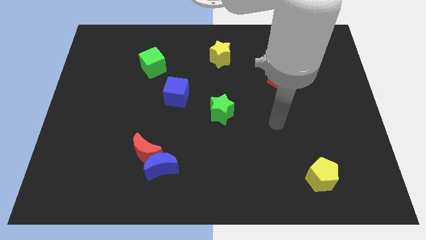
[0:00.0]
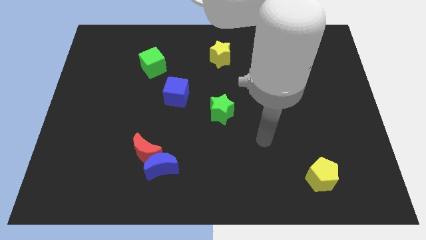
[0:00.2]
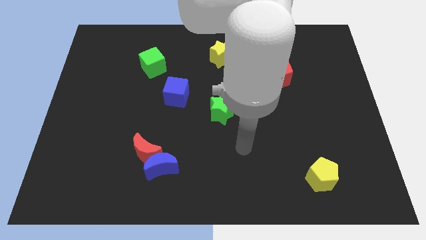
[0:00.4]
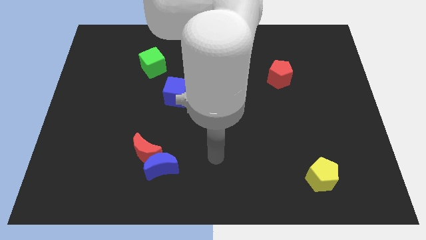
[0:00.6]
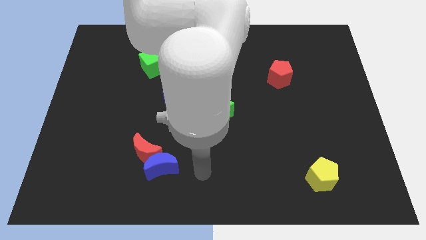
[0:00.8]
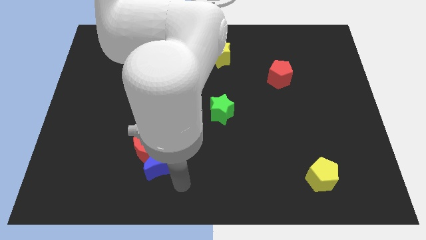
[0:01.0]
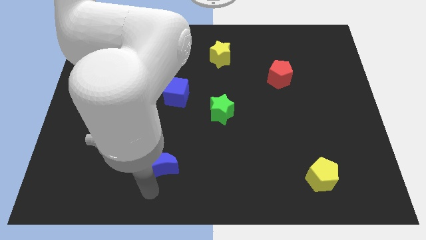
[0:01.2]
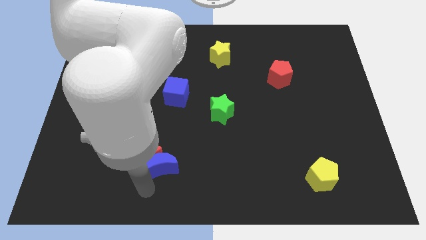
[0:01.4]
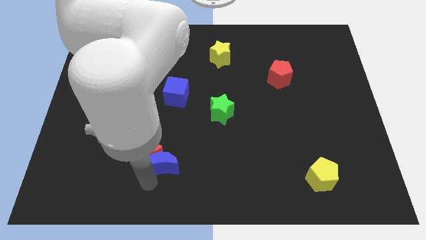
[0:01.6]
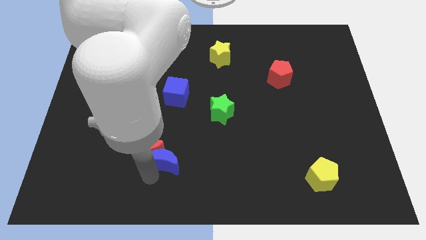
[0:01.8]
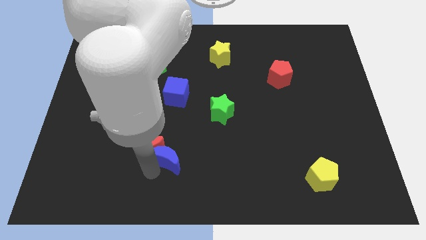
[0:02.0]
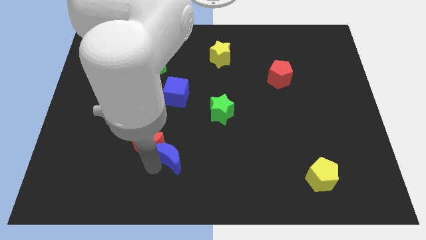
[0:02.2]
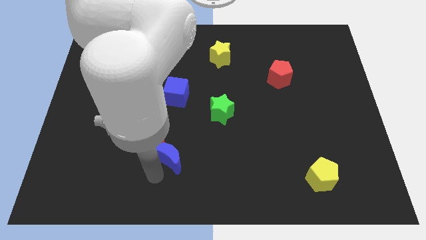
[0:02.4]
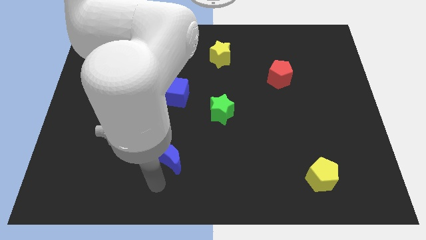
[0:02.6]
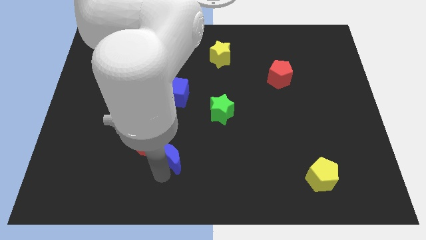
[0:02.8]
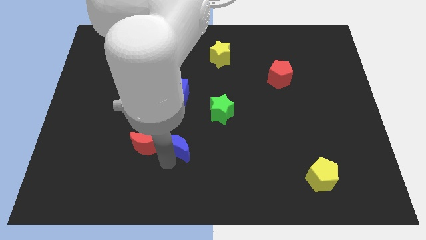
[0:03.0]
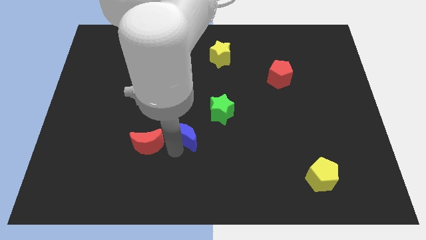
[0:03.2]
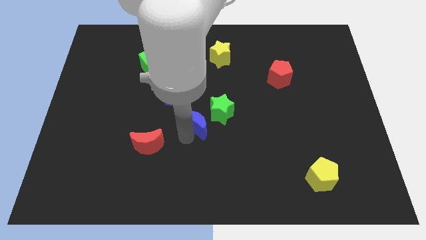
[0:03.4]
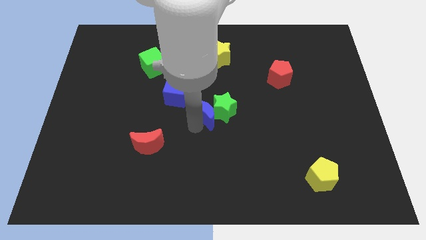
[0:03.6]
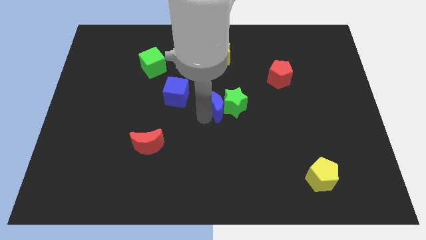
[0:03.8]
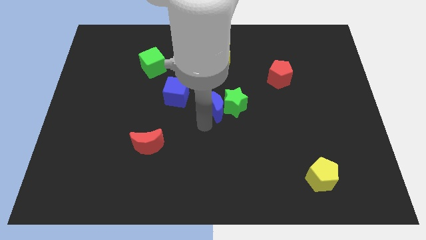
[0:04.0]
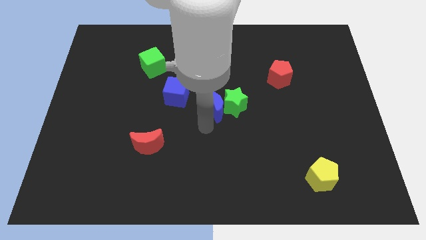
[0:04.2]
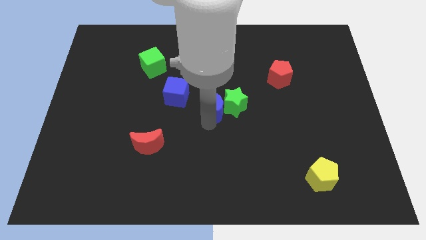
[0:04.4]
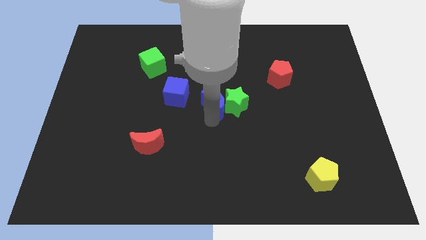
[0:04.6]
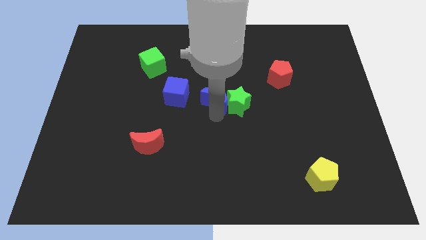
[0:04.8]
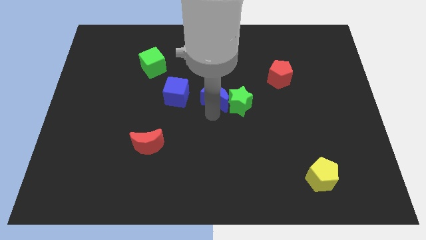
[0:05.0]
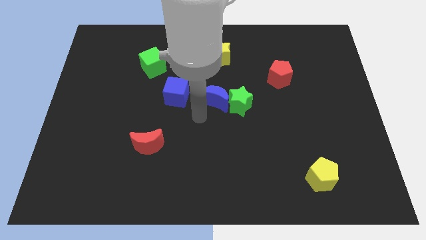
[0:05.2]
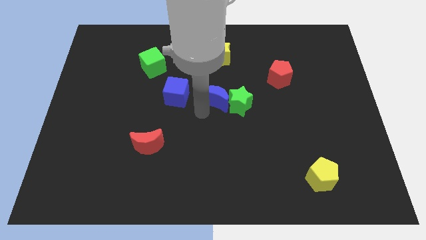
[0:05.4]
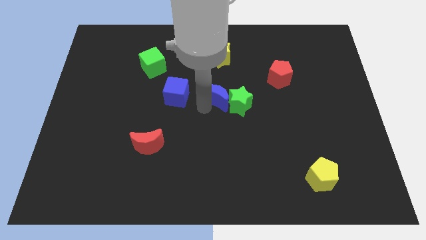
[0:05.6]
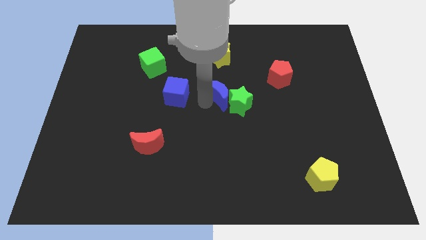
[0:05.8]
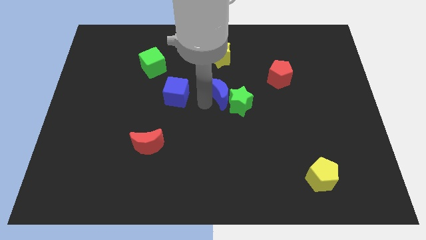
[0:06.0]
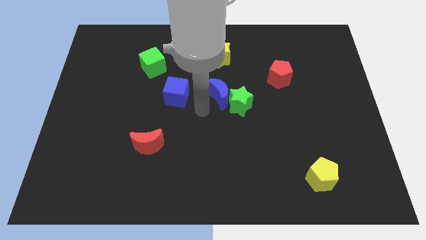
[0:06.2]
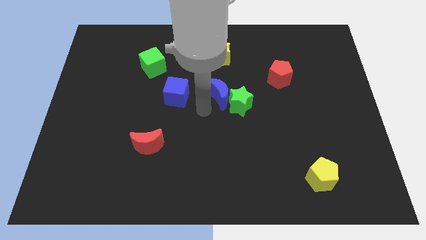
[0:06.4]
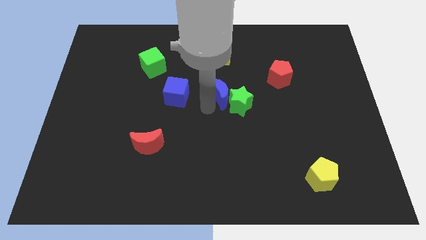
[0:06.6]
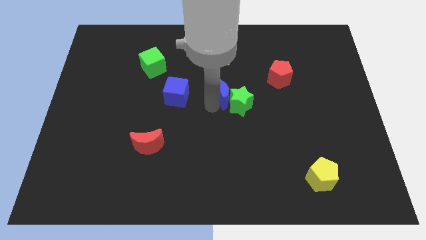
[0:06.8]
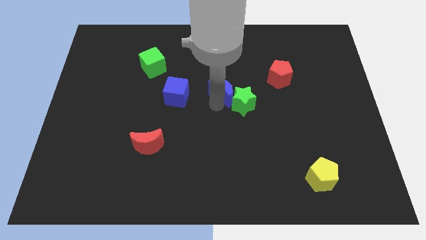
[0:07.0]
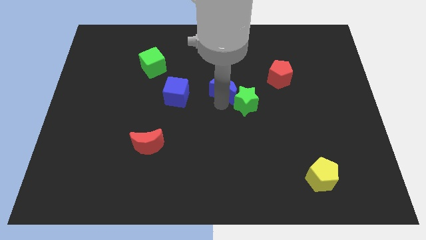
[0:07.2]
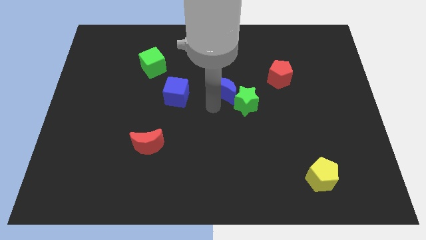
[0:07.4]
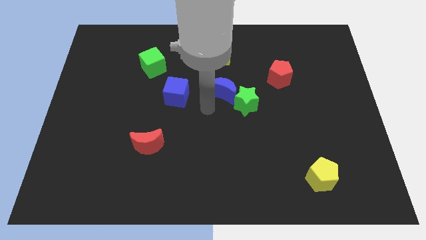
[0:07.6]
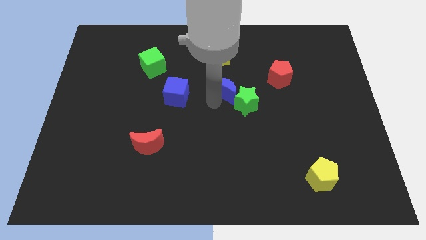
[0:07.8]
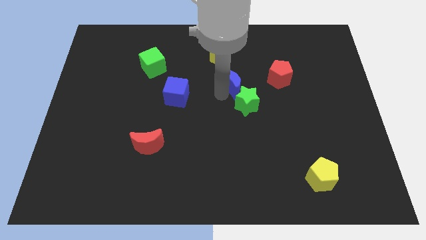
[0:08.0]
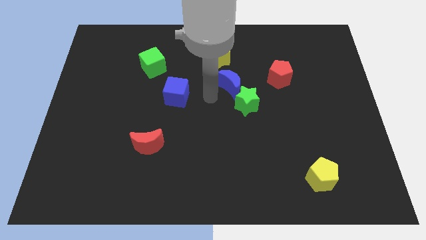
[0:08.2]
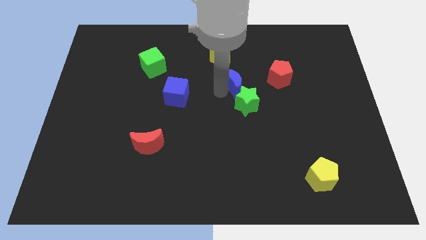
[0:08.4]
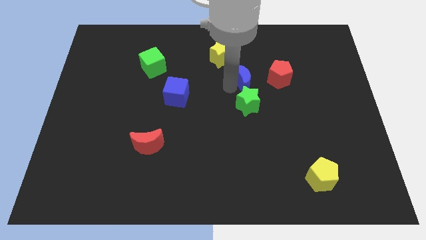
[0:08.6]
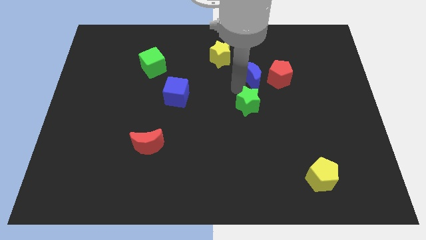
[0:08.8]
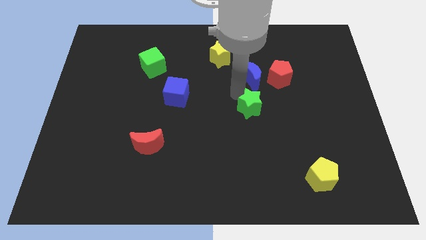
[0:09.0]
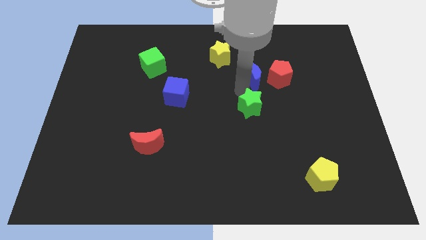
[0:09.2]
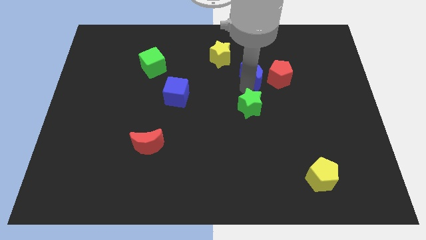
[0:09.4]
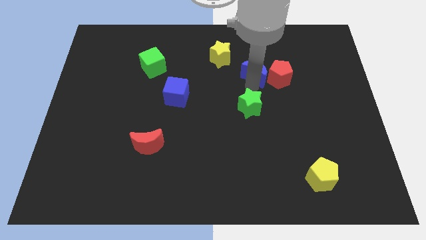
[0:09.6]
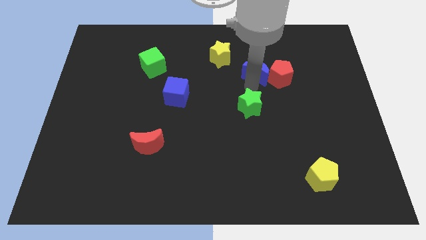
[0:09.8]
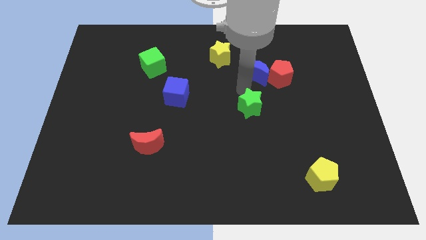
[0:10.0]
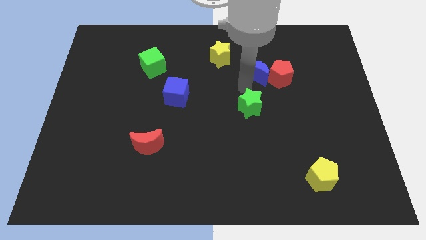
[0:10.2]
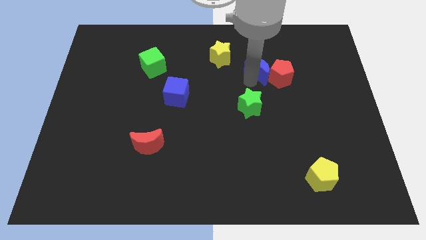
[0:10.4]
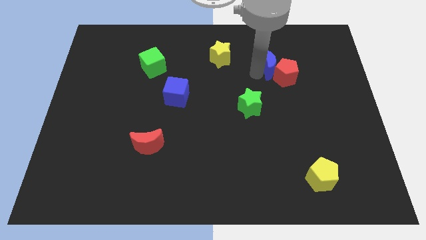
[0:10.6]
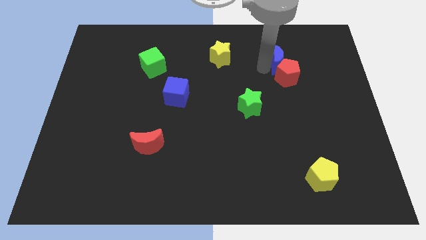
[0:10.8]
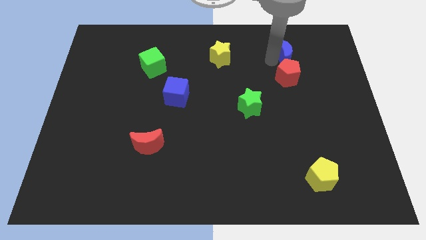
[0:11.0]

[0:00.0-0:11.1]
move the blue moon to the top right of the red pentagon

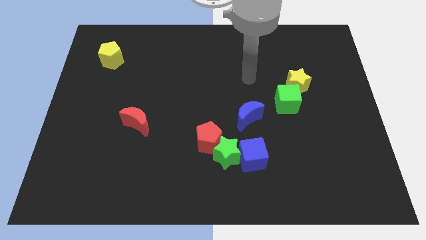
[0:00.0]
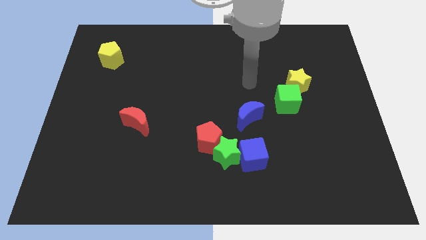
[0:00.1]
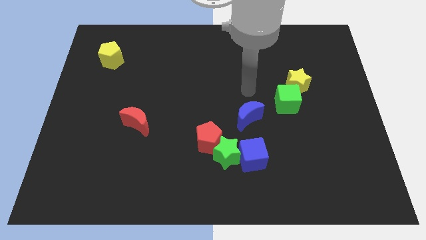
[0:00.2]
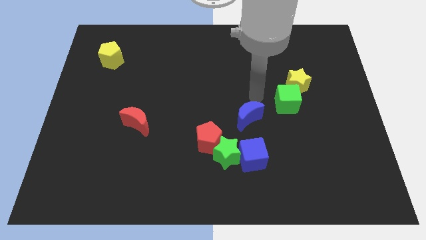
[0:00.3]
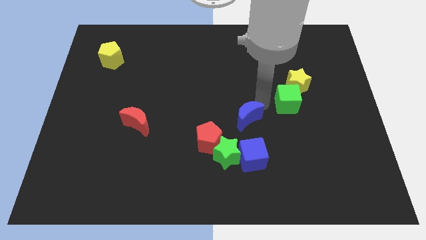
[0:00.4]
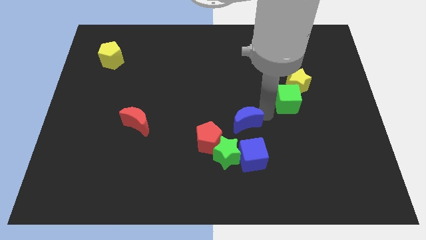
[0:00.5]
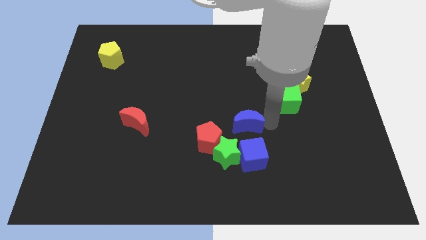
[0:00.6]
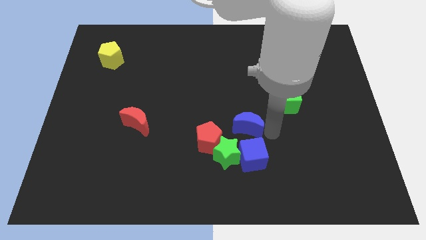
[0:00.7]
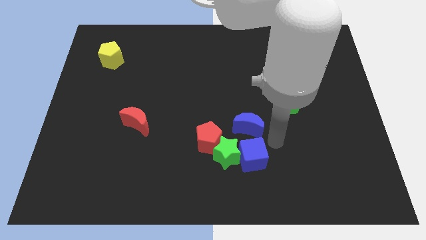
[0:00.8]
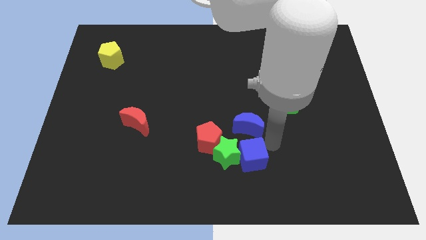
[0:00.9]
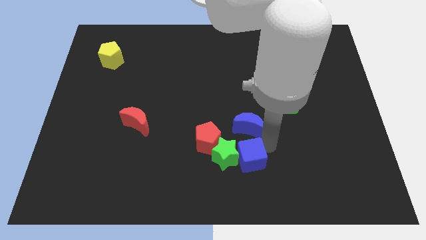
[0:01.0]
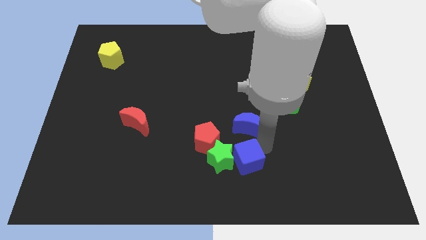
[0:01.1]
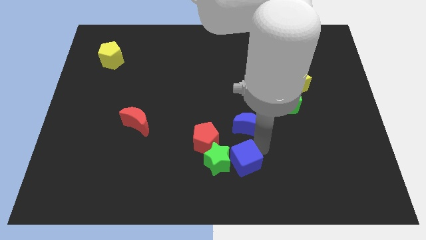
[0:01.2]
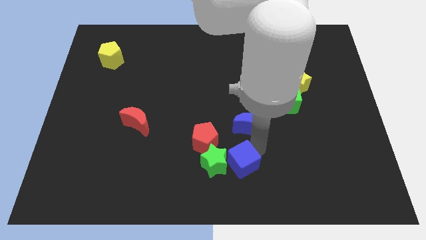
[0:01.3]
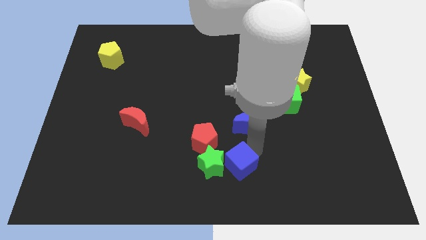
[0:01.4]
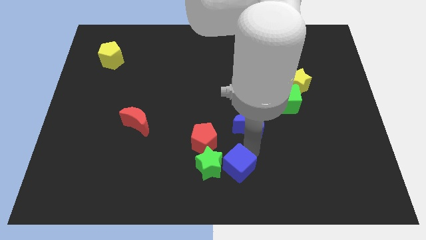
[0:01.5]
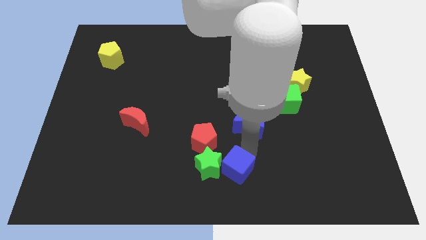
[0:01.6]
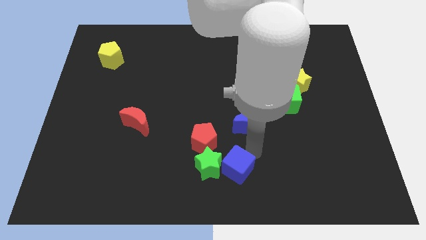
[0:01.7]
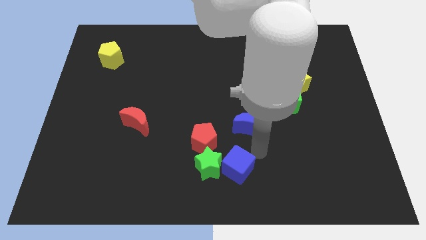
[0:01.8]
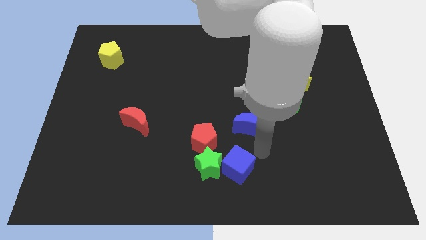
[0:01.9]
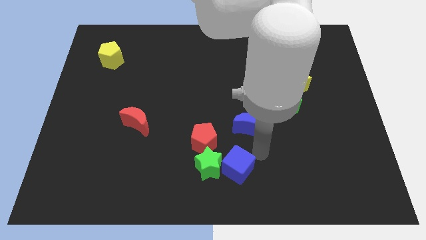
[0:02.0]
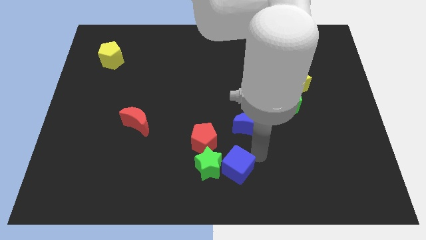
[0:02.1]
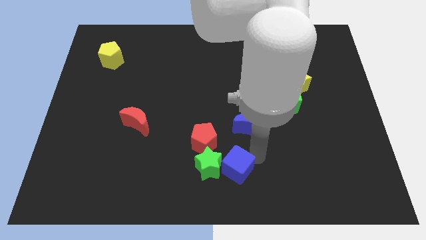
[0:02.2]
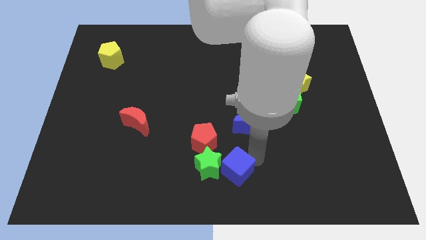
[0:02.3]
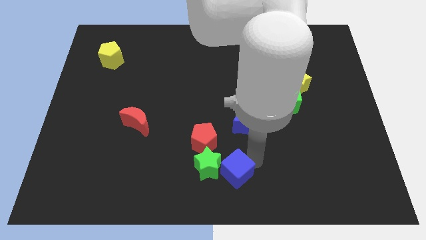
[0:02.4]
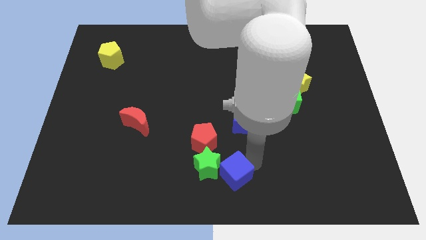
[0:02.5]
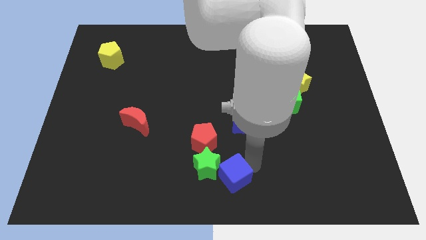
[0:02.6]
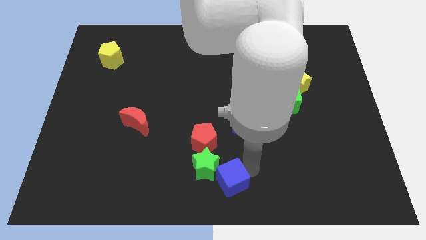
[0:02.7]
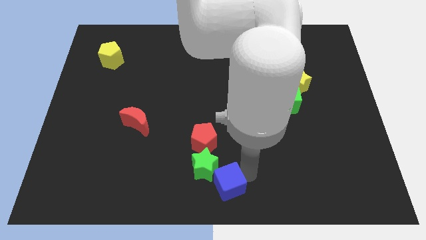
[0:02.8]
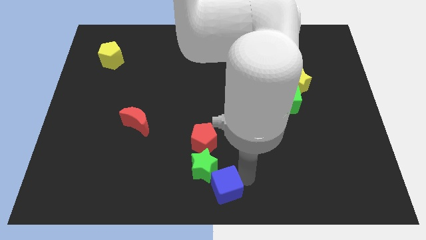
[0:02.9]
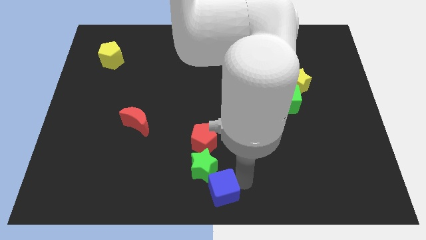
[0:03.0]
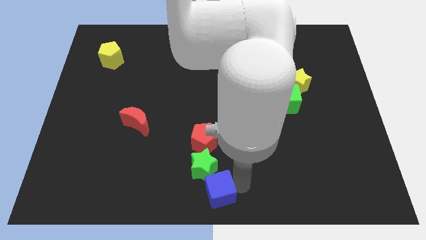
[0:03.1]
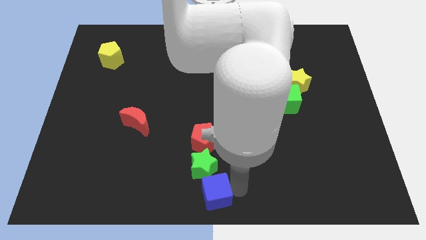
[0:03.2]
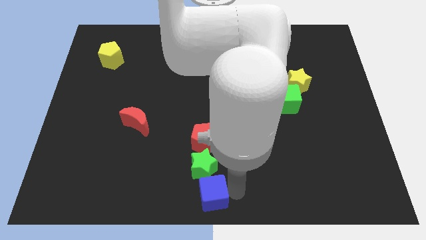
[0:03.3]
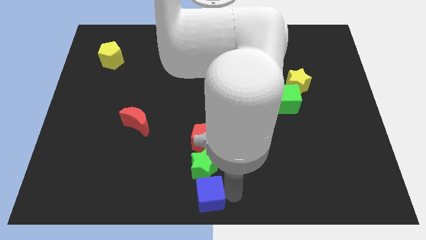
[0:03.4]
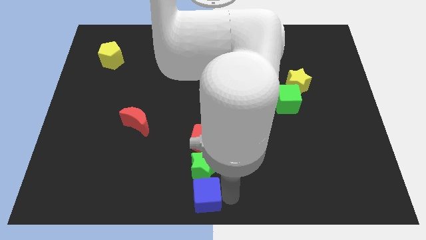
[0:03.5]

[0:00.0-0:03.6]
slide the blue cube to the bottom left side of the green star
